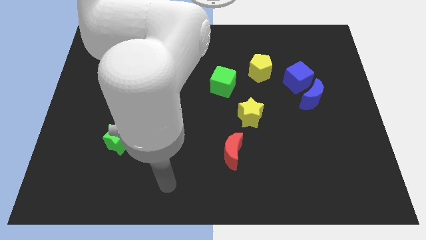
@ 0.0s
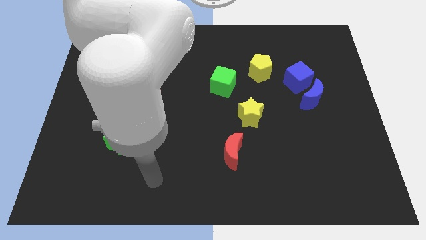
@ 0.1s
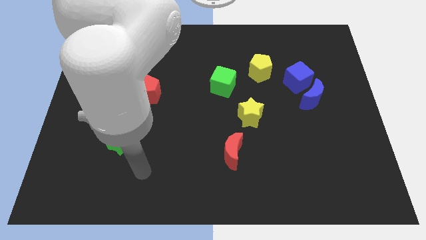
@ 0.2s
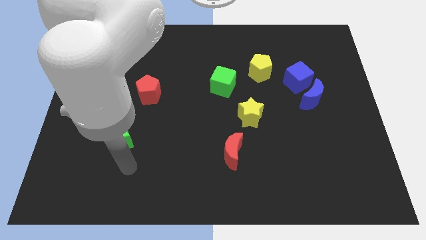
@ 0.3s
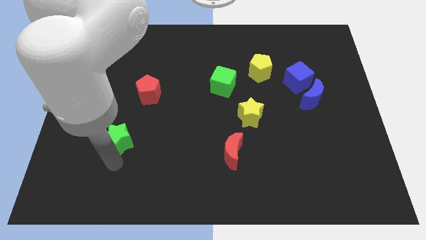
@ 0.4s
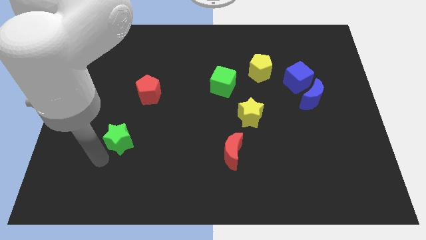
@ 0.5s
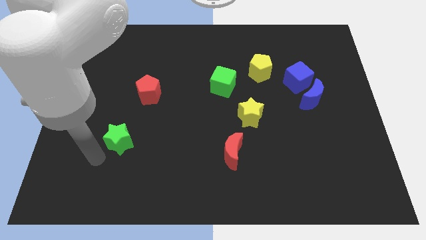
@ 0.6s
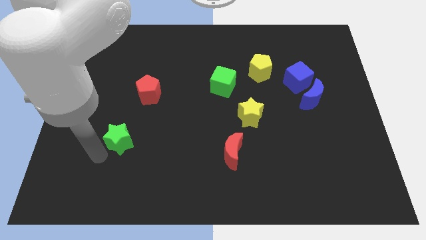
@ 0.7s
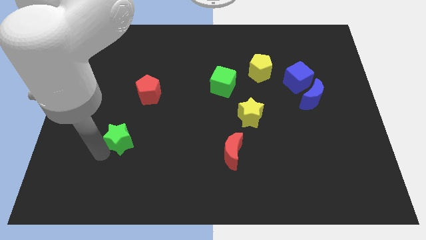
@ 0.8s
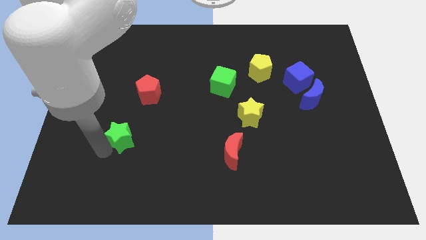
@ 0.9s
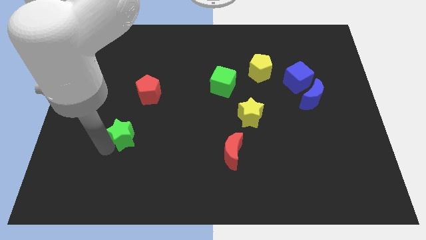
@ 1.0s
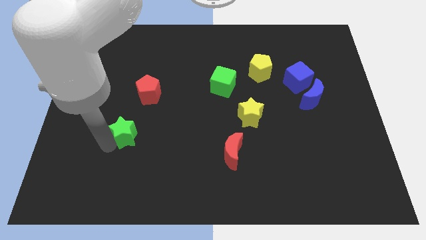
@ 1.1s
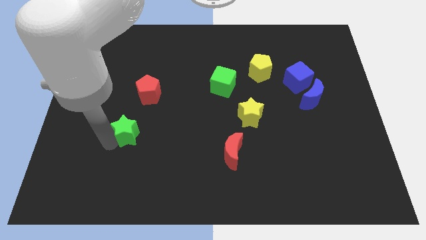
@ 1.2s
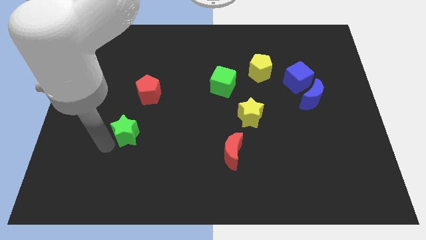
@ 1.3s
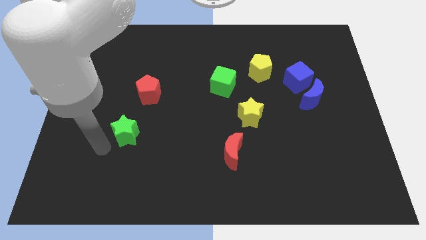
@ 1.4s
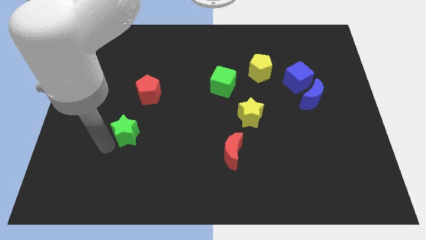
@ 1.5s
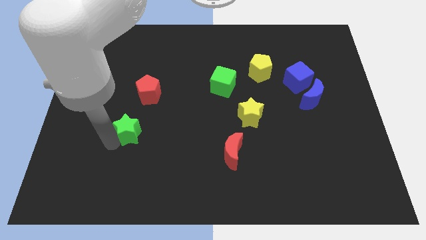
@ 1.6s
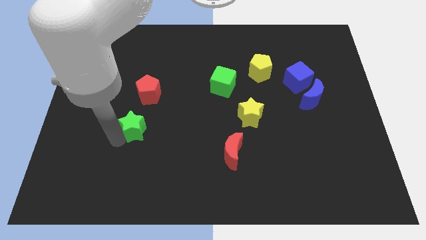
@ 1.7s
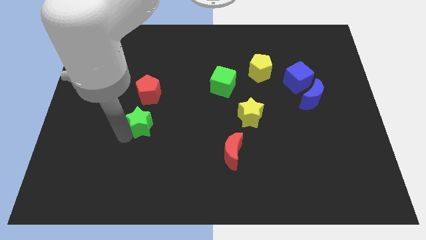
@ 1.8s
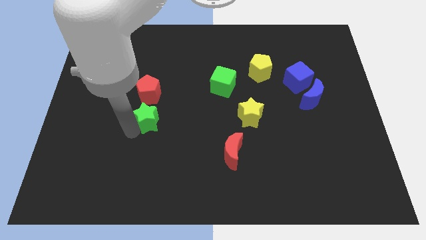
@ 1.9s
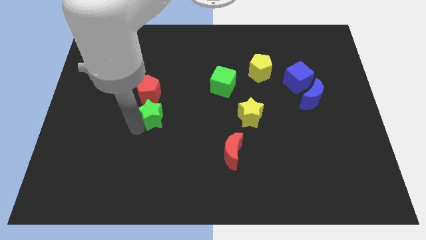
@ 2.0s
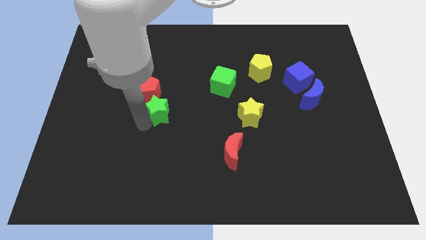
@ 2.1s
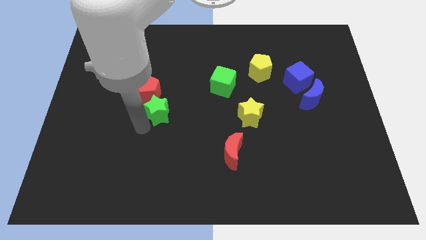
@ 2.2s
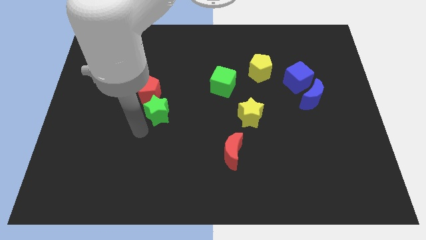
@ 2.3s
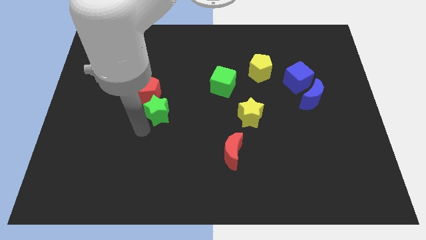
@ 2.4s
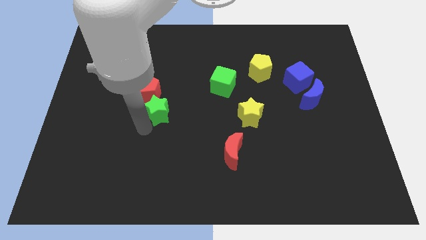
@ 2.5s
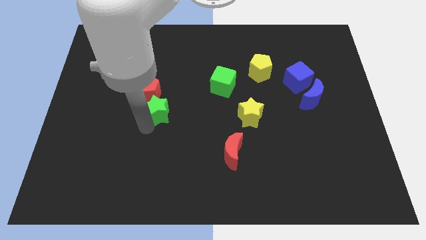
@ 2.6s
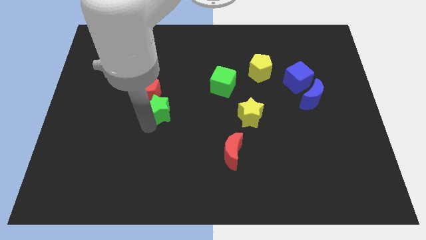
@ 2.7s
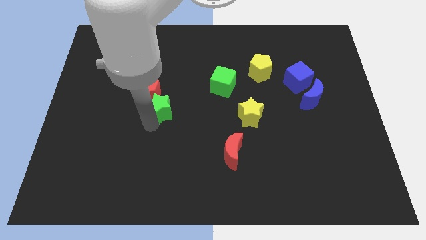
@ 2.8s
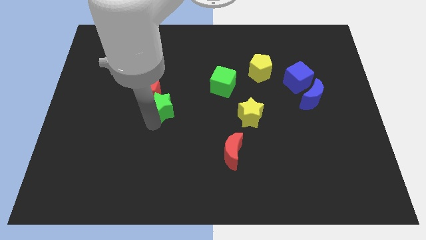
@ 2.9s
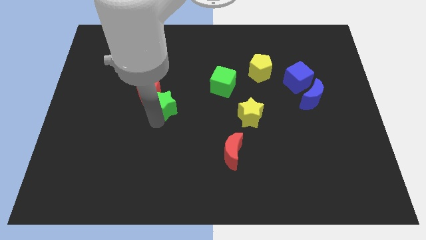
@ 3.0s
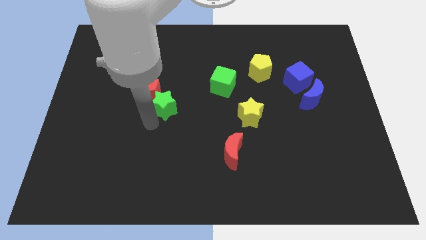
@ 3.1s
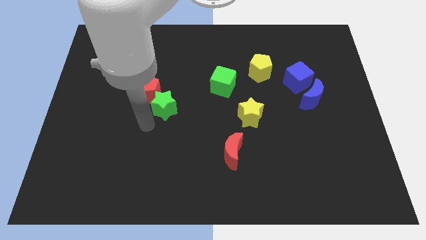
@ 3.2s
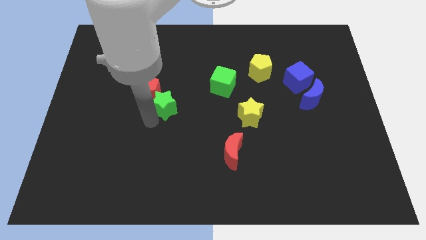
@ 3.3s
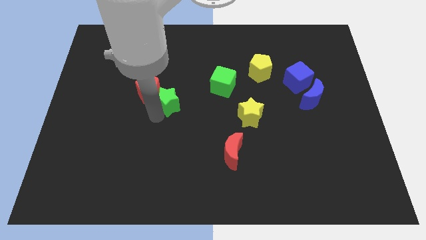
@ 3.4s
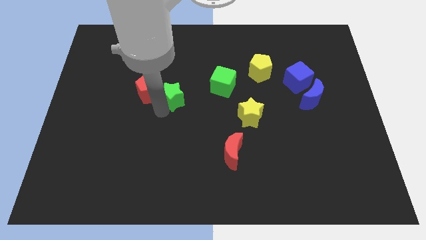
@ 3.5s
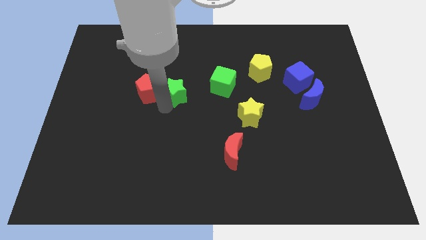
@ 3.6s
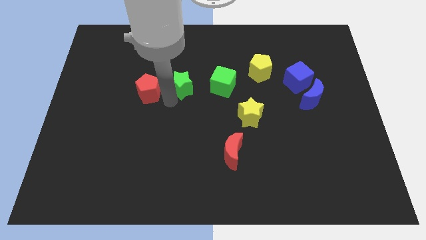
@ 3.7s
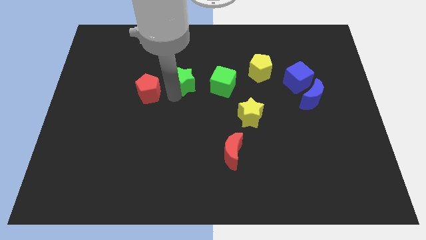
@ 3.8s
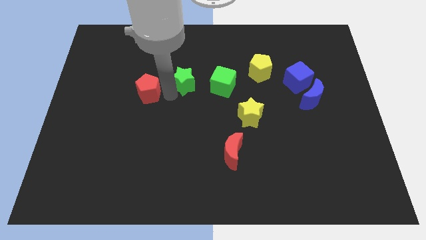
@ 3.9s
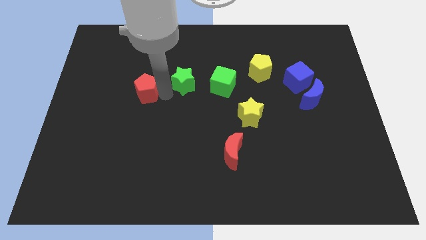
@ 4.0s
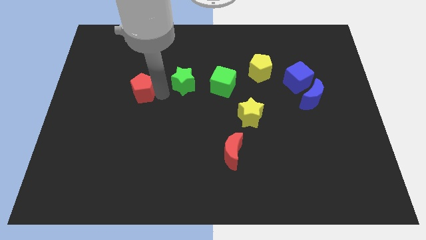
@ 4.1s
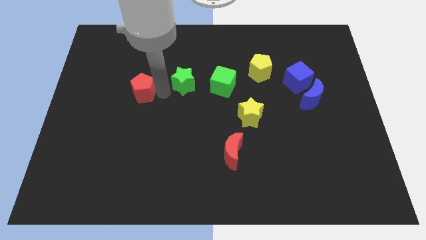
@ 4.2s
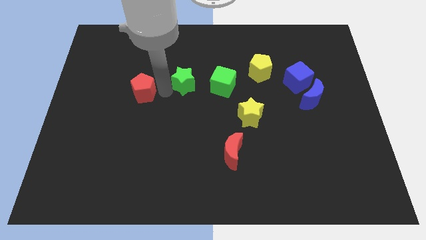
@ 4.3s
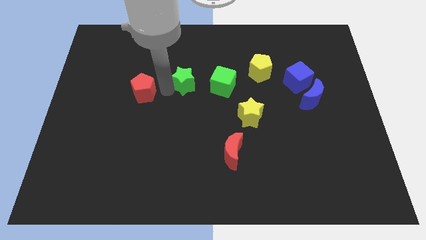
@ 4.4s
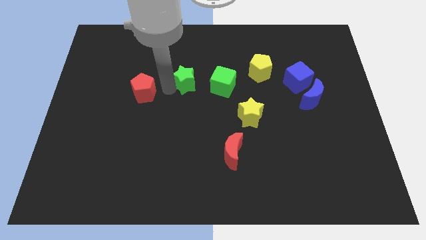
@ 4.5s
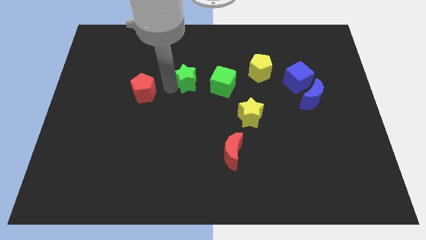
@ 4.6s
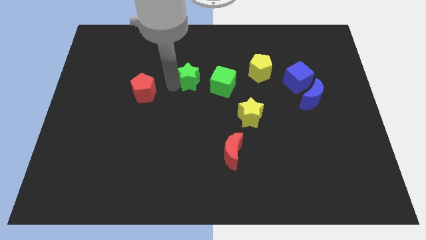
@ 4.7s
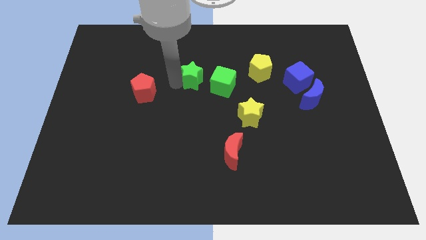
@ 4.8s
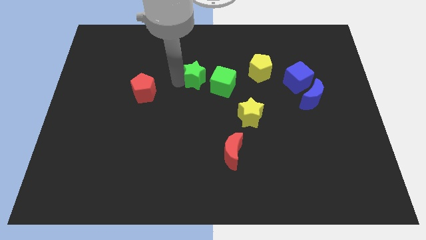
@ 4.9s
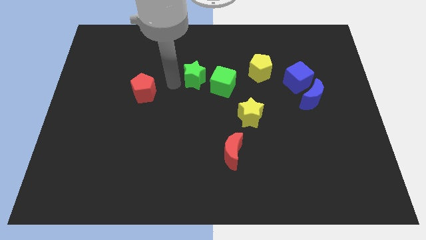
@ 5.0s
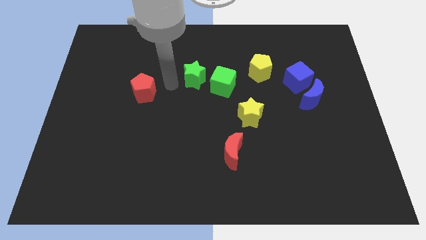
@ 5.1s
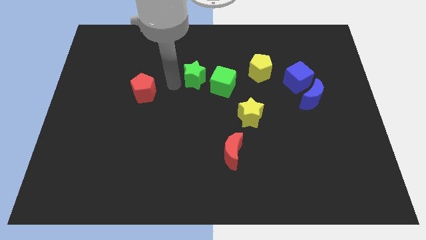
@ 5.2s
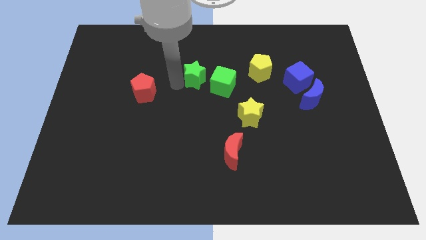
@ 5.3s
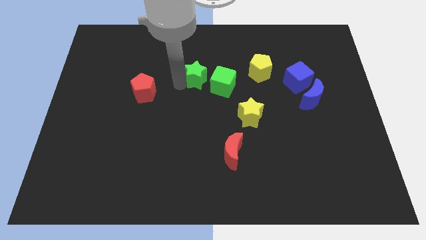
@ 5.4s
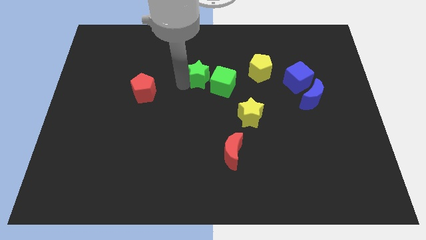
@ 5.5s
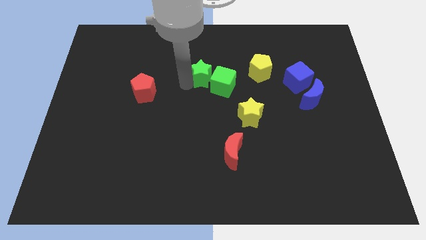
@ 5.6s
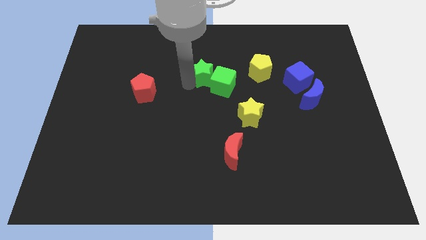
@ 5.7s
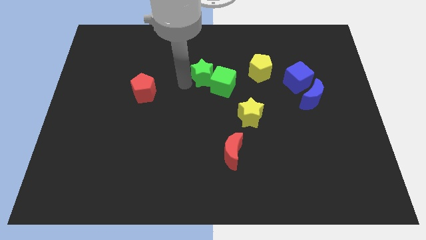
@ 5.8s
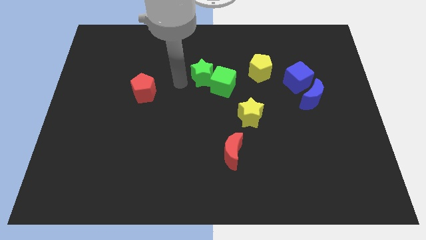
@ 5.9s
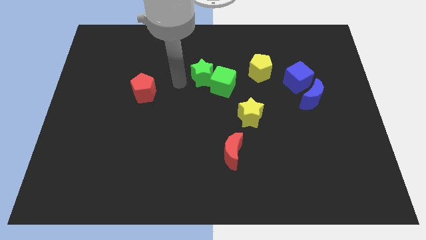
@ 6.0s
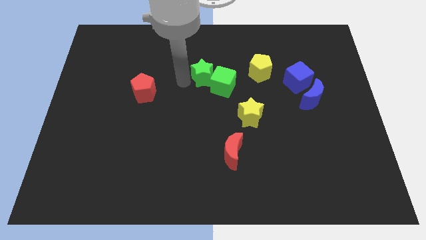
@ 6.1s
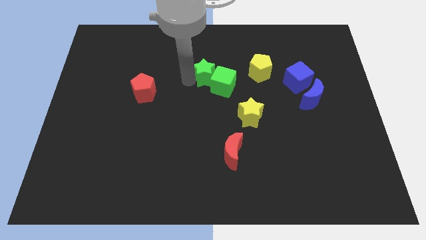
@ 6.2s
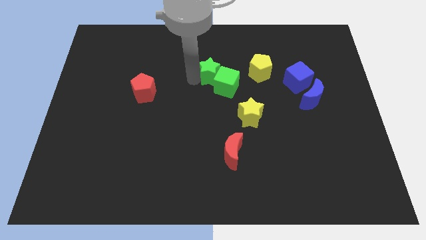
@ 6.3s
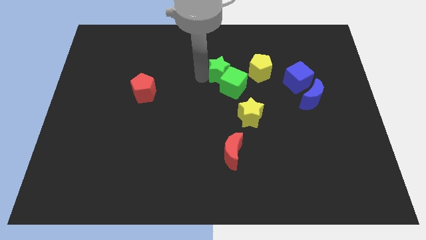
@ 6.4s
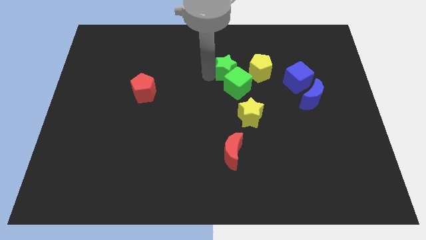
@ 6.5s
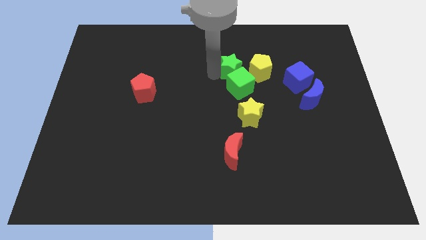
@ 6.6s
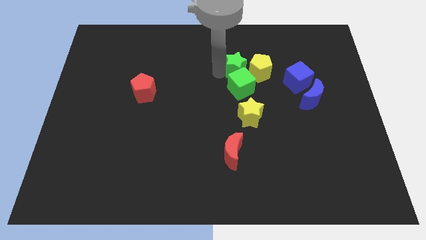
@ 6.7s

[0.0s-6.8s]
slide the green star close to the yellow pentagon

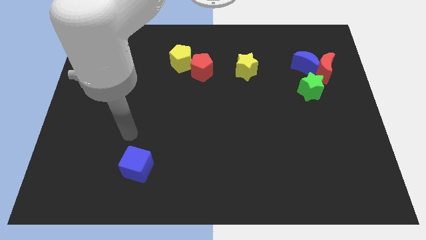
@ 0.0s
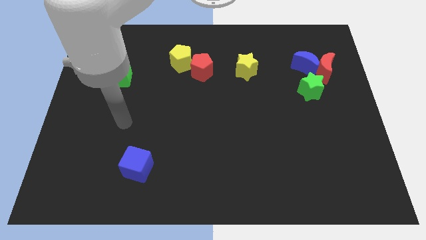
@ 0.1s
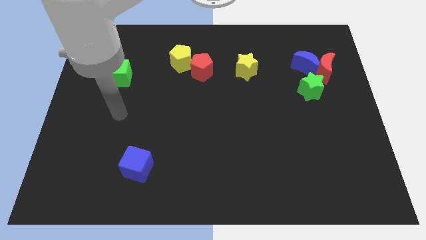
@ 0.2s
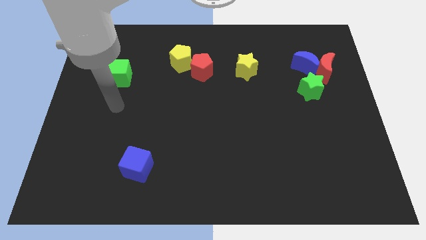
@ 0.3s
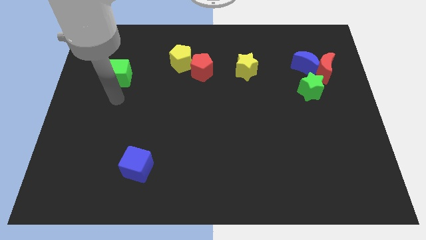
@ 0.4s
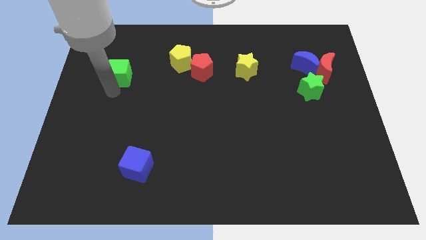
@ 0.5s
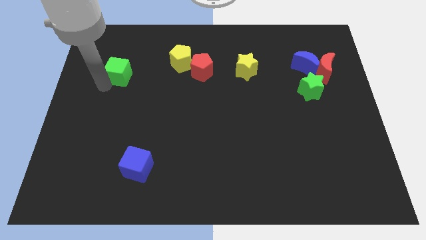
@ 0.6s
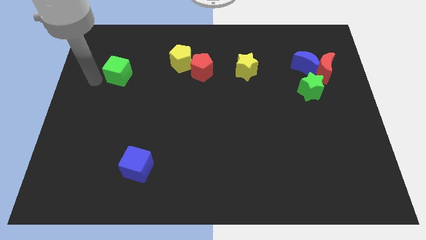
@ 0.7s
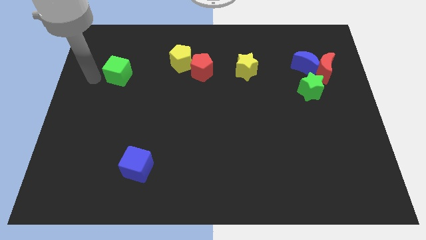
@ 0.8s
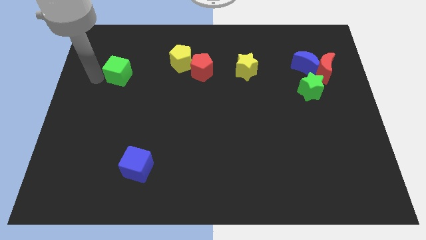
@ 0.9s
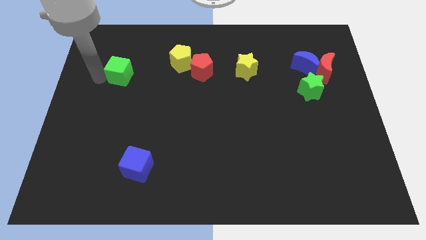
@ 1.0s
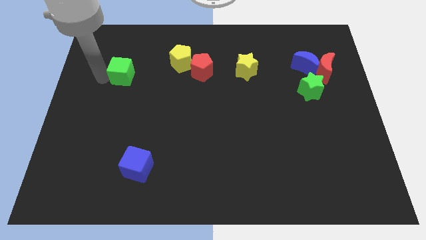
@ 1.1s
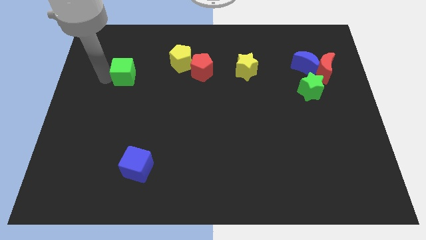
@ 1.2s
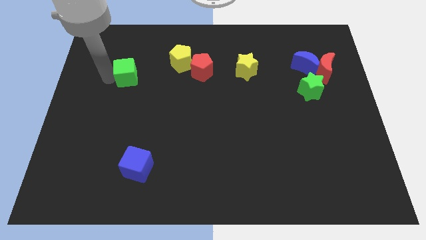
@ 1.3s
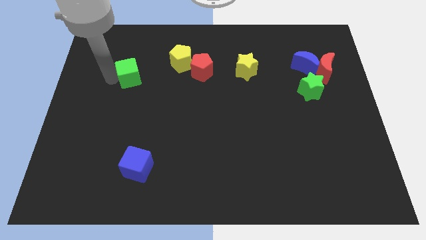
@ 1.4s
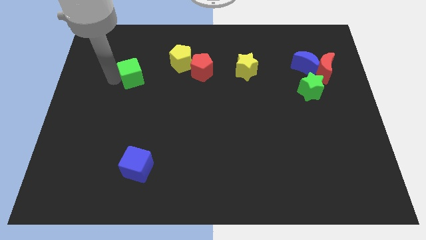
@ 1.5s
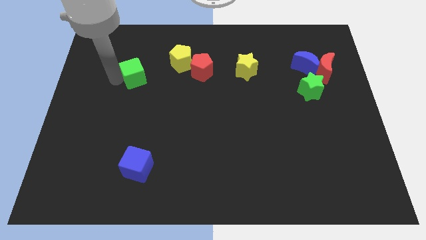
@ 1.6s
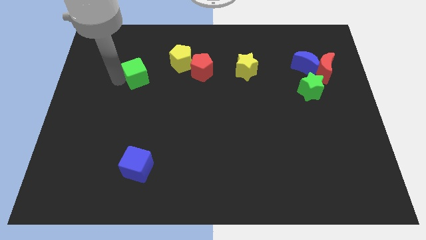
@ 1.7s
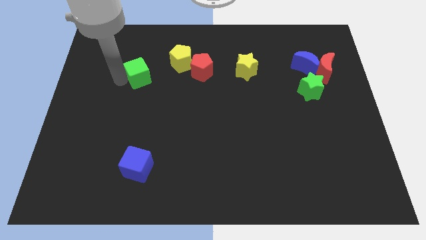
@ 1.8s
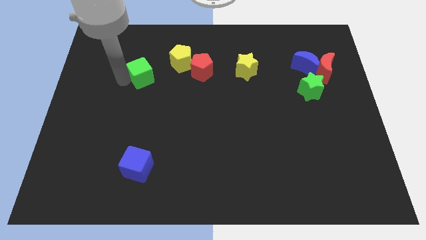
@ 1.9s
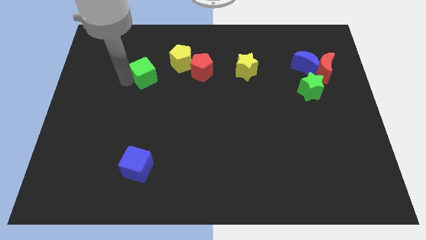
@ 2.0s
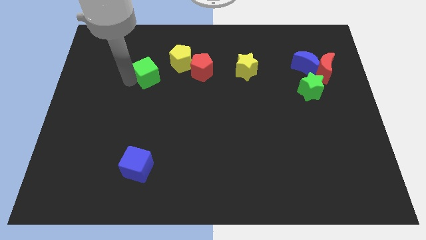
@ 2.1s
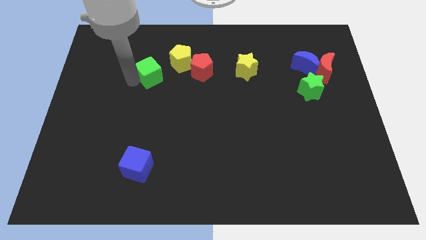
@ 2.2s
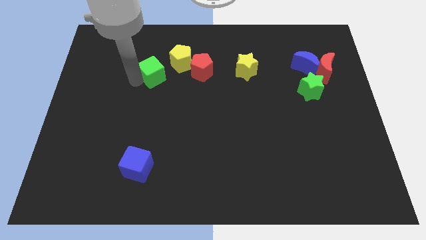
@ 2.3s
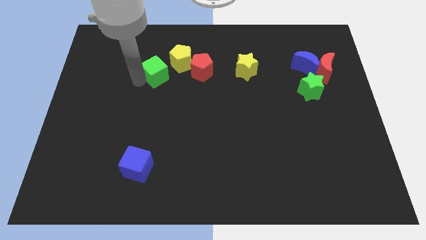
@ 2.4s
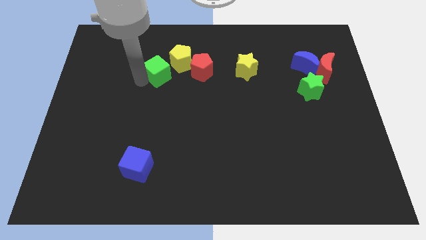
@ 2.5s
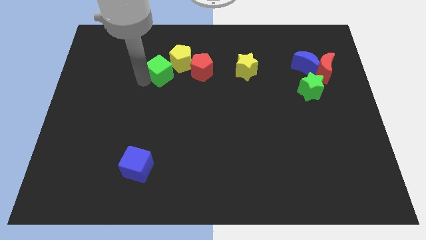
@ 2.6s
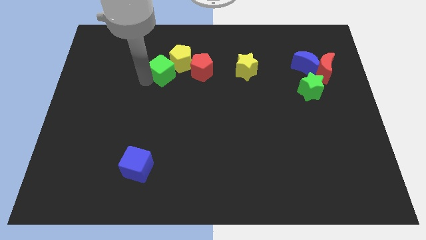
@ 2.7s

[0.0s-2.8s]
slide the green cube close to the yellow pentagon
